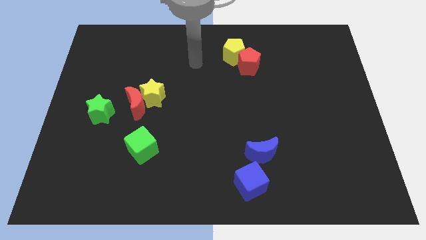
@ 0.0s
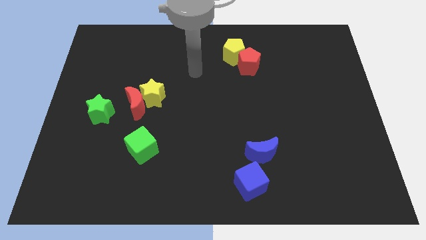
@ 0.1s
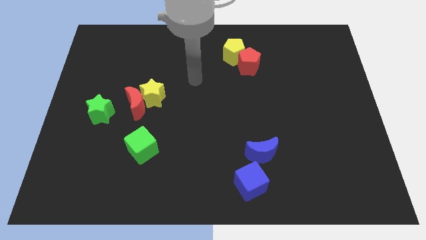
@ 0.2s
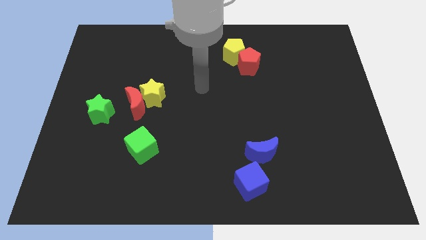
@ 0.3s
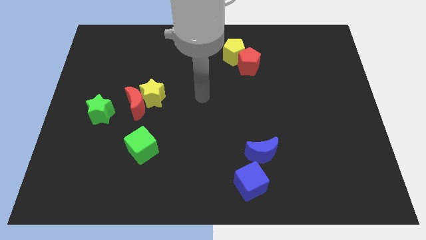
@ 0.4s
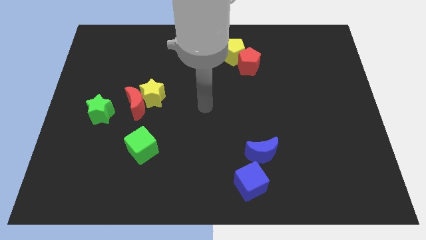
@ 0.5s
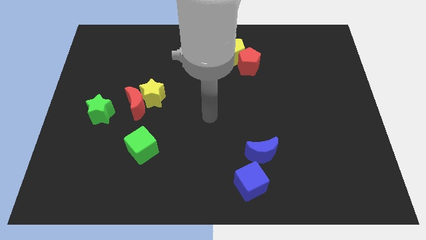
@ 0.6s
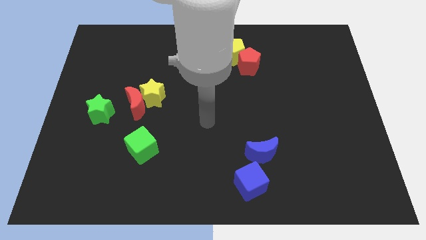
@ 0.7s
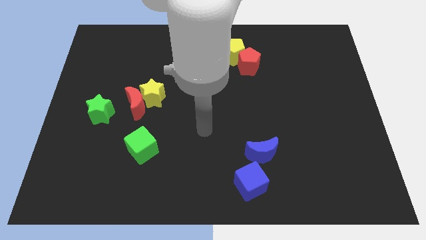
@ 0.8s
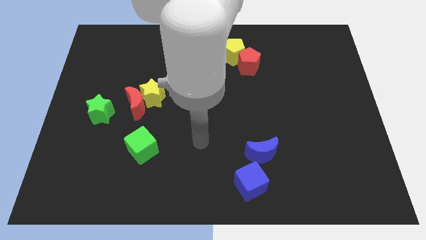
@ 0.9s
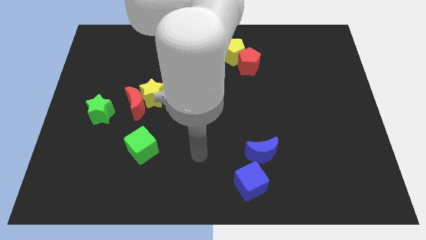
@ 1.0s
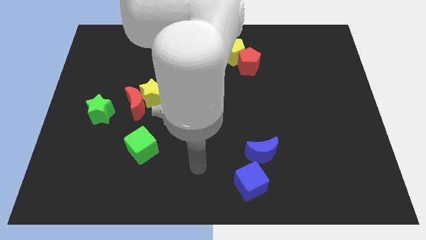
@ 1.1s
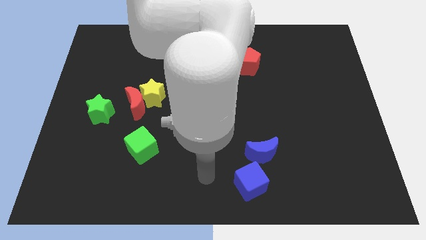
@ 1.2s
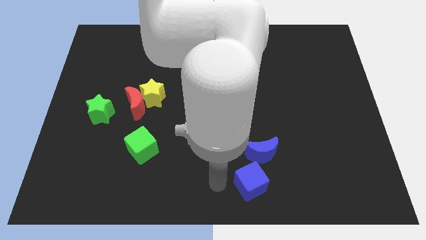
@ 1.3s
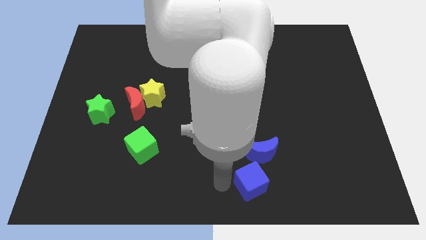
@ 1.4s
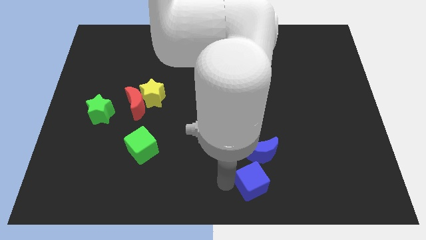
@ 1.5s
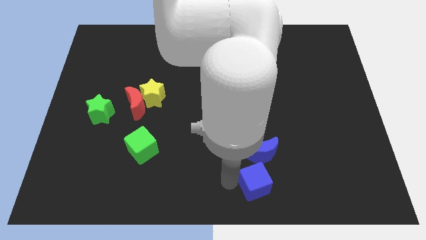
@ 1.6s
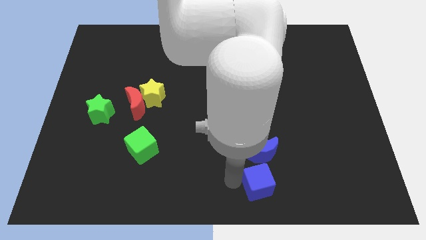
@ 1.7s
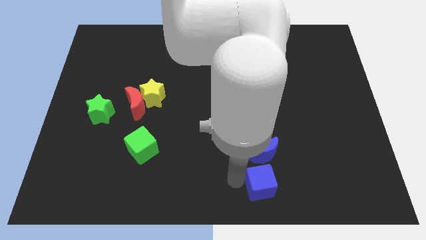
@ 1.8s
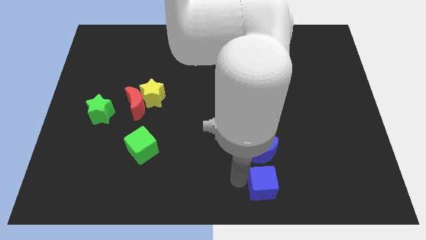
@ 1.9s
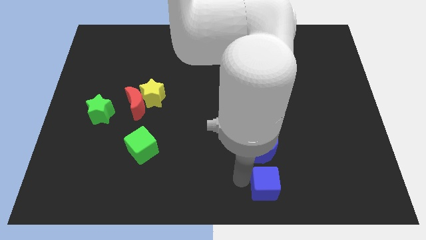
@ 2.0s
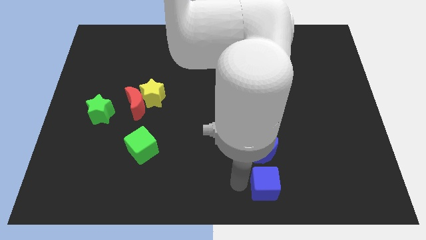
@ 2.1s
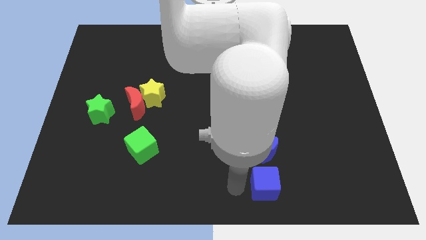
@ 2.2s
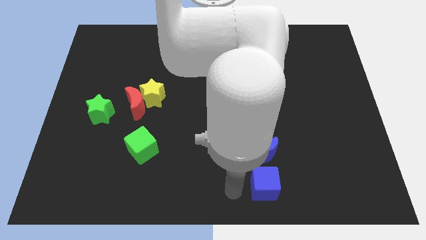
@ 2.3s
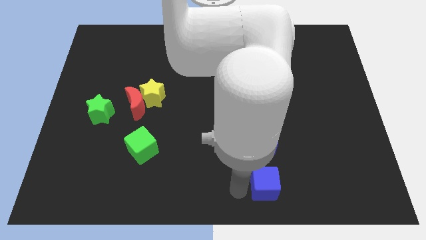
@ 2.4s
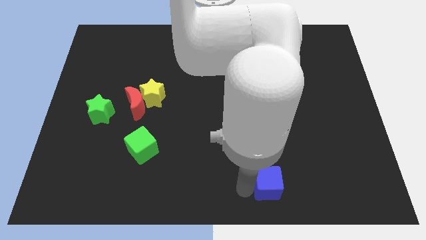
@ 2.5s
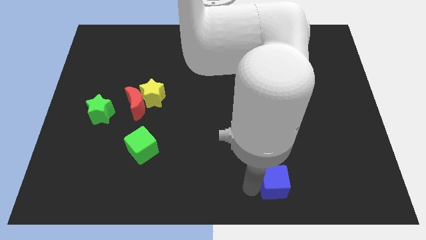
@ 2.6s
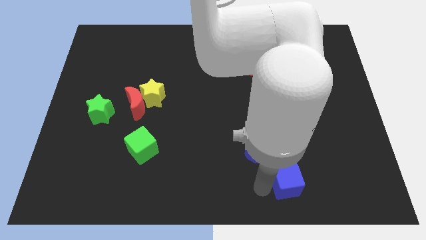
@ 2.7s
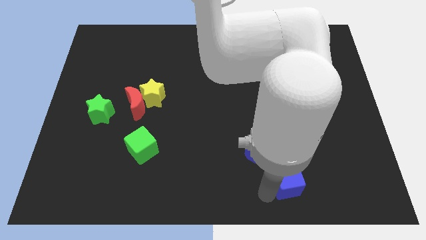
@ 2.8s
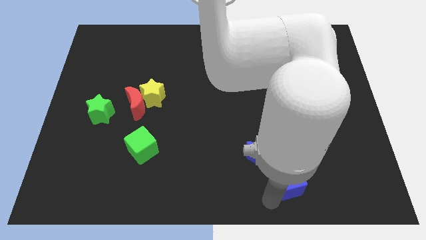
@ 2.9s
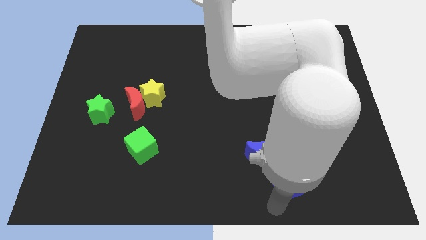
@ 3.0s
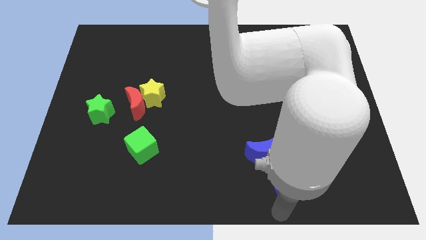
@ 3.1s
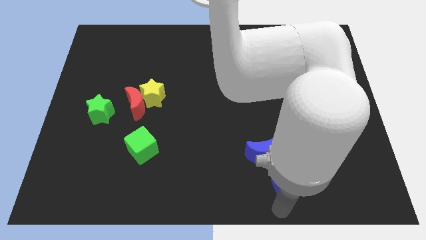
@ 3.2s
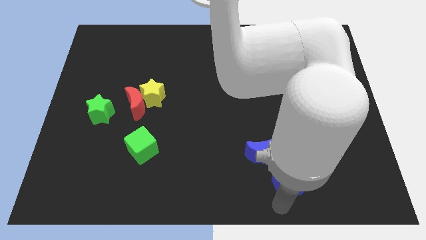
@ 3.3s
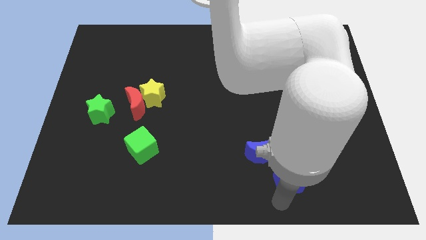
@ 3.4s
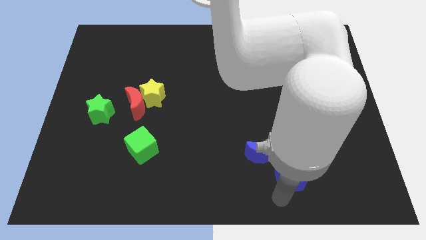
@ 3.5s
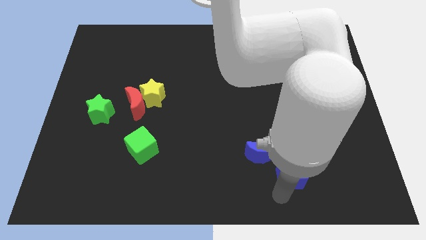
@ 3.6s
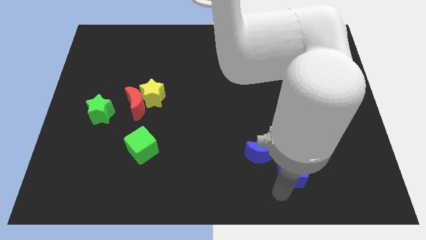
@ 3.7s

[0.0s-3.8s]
move the blue cube upwards and to the right diagonally somewhat

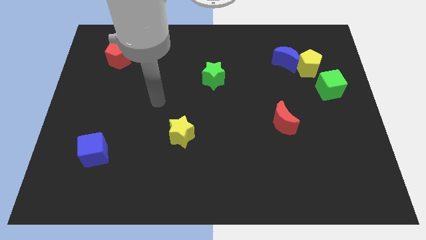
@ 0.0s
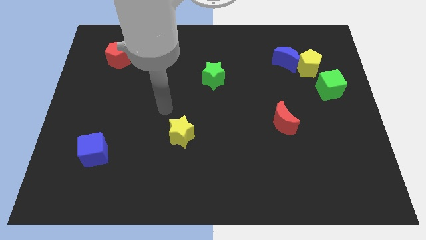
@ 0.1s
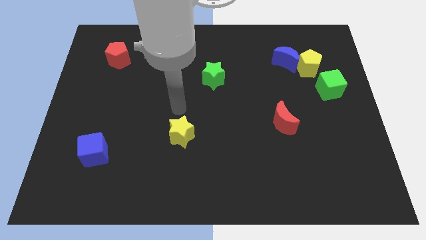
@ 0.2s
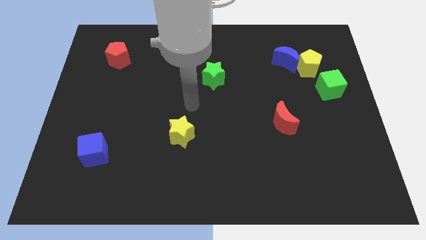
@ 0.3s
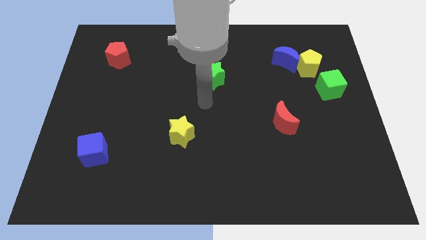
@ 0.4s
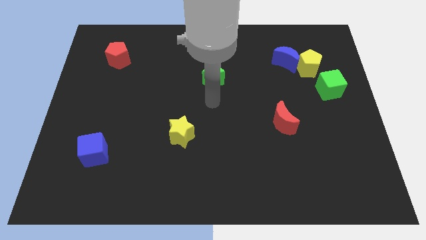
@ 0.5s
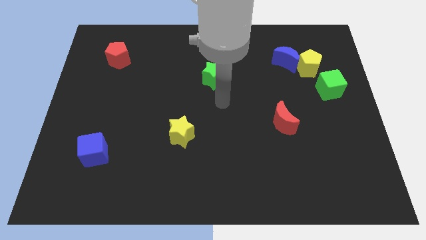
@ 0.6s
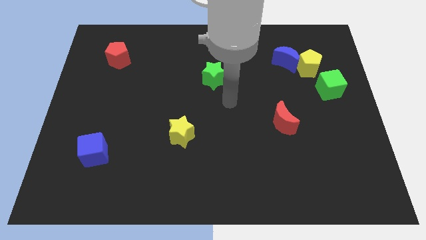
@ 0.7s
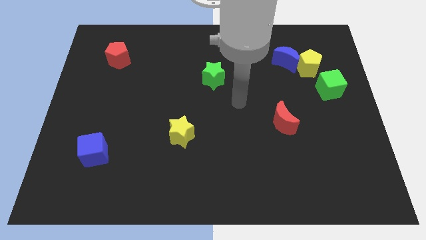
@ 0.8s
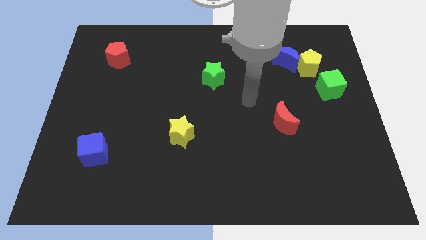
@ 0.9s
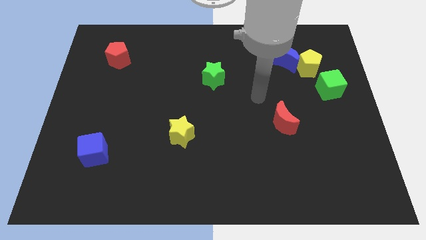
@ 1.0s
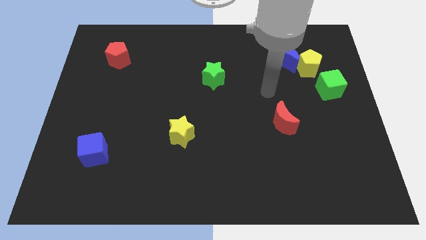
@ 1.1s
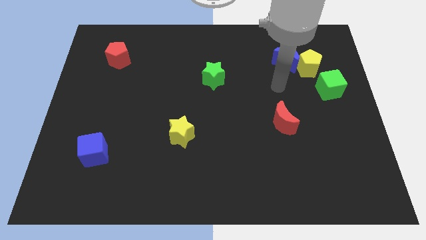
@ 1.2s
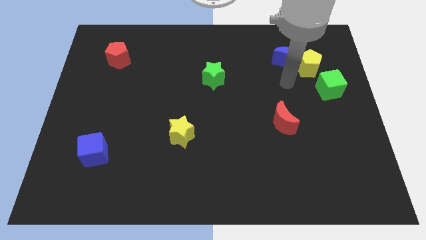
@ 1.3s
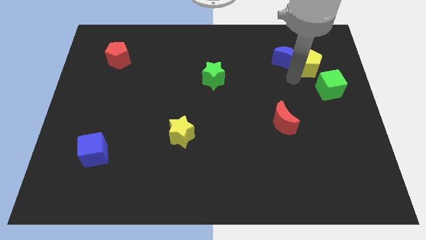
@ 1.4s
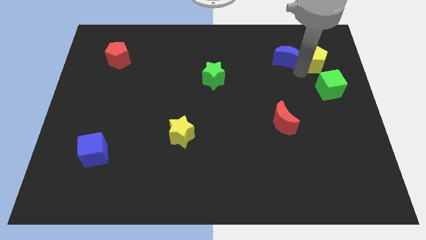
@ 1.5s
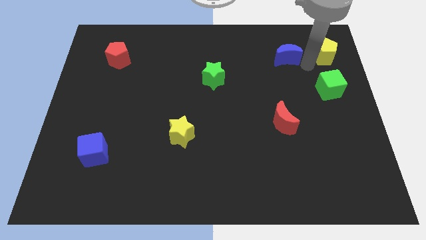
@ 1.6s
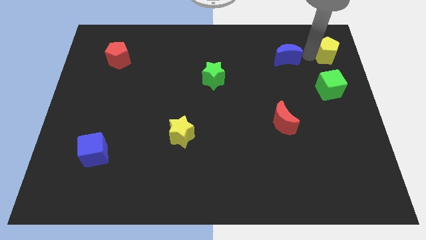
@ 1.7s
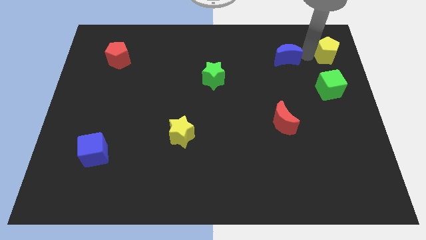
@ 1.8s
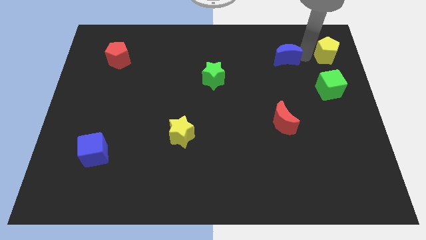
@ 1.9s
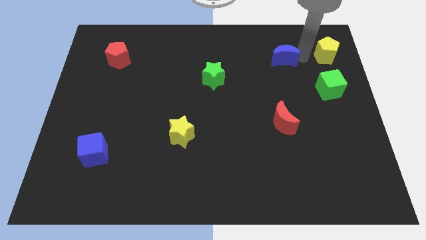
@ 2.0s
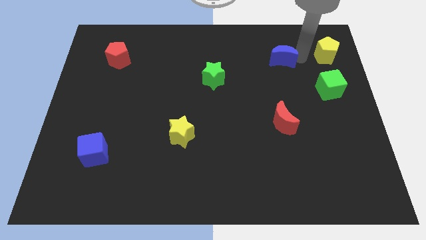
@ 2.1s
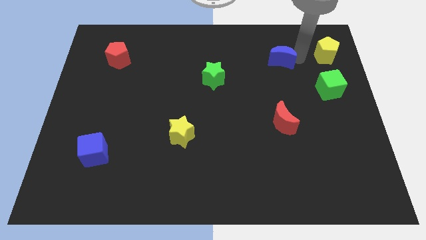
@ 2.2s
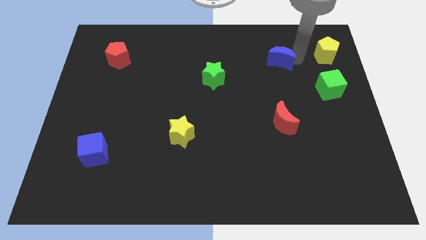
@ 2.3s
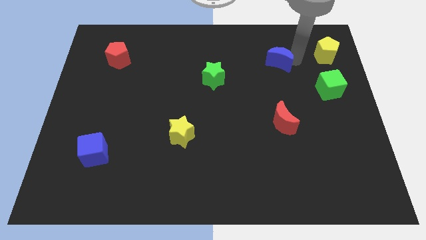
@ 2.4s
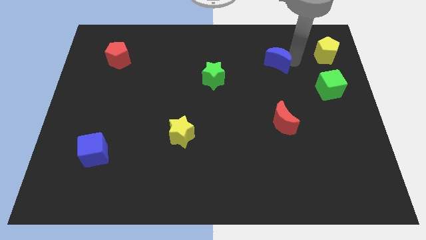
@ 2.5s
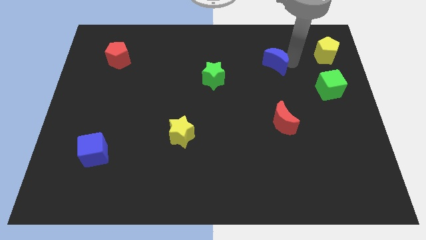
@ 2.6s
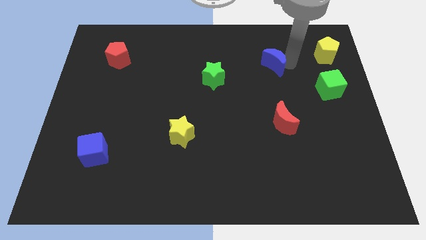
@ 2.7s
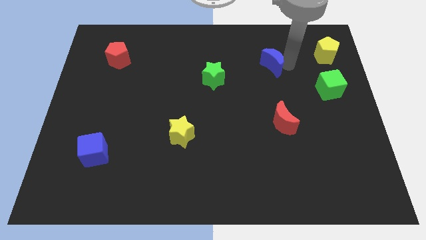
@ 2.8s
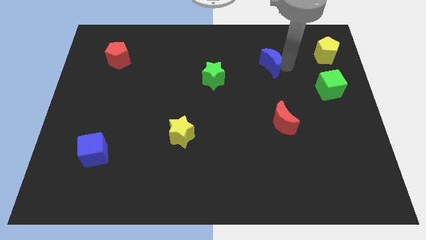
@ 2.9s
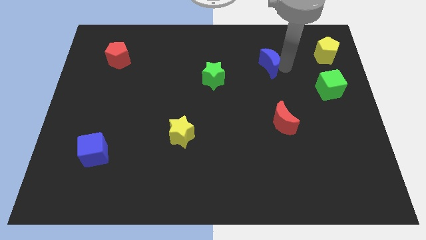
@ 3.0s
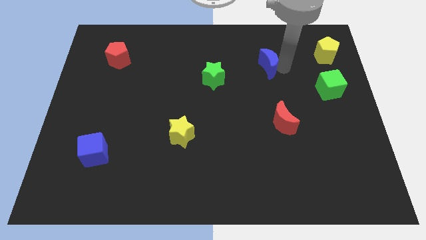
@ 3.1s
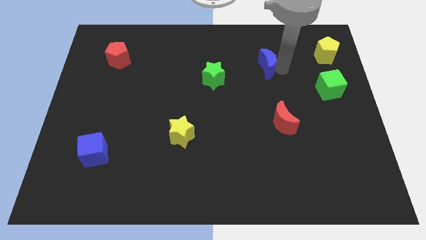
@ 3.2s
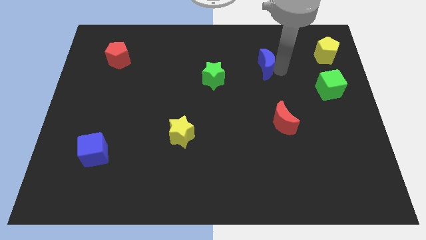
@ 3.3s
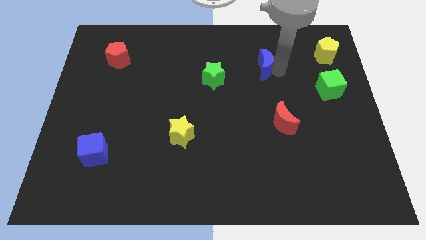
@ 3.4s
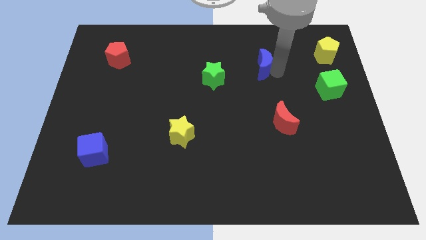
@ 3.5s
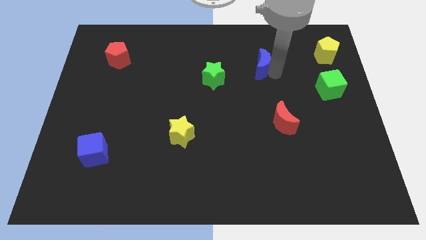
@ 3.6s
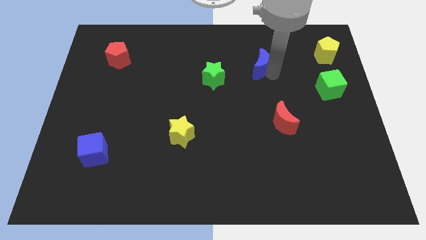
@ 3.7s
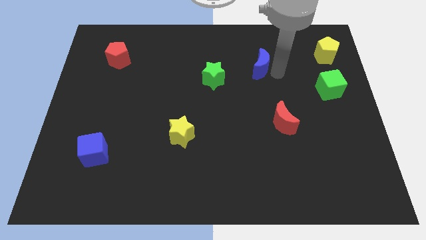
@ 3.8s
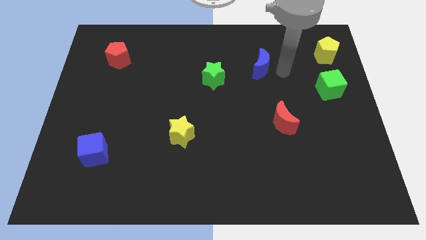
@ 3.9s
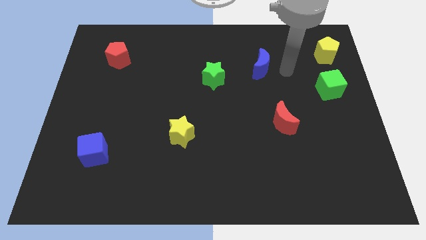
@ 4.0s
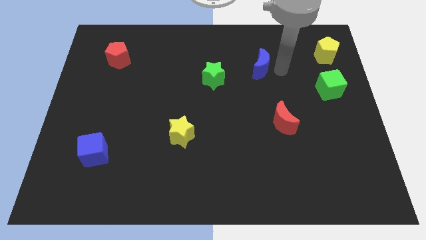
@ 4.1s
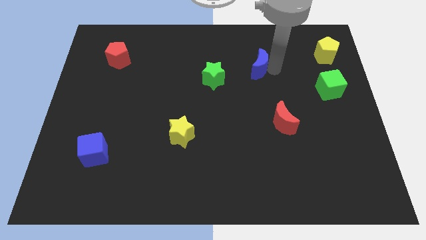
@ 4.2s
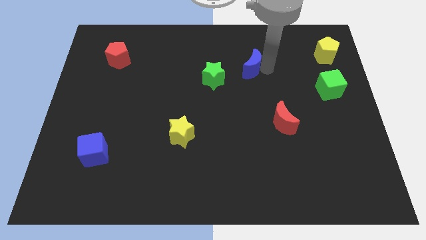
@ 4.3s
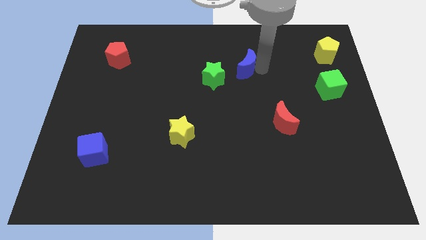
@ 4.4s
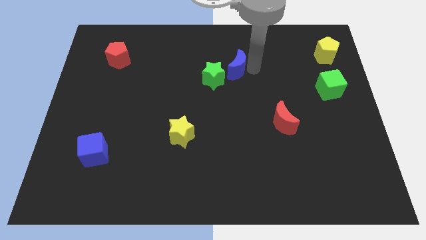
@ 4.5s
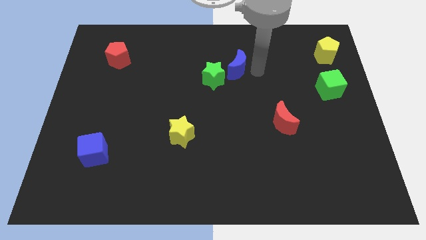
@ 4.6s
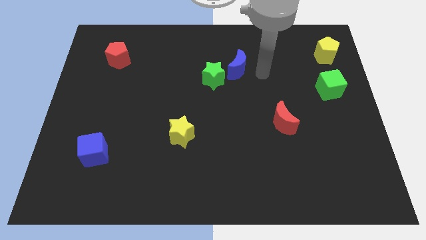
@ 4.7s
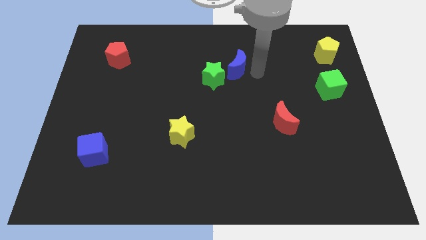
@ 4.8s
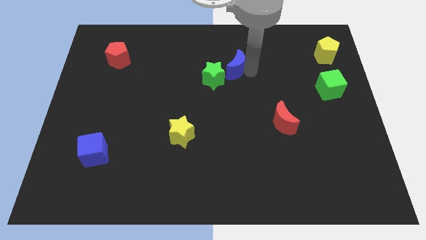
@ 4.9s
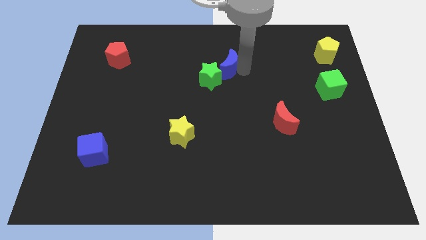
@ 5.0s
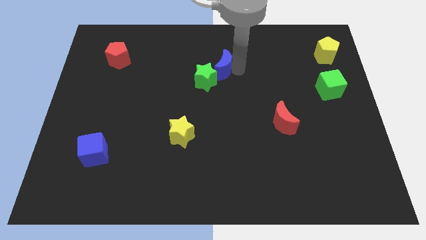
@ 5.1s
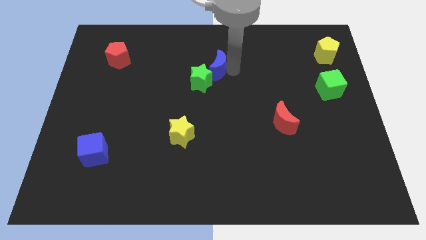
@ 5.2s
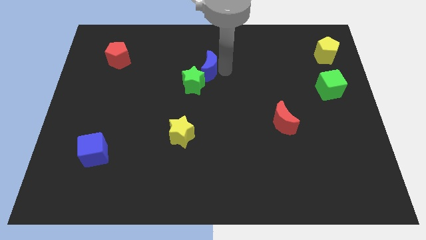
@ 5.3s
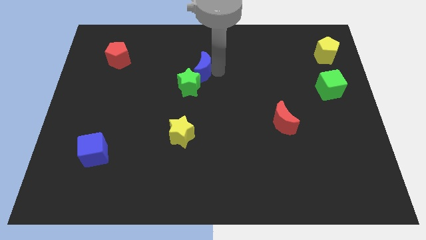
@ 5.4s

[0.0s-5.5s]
move the blue moon left
